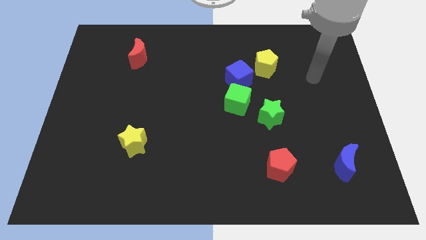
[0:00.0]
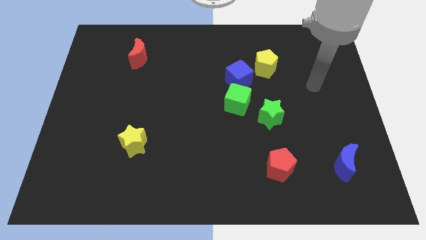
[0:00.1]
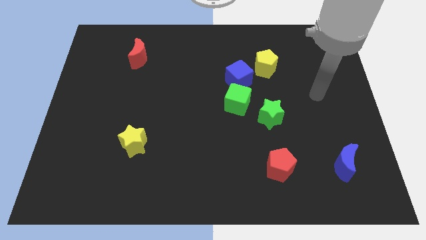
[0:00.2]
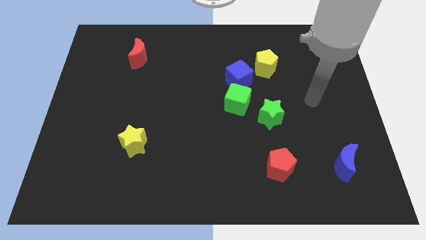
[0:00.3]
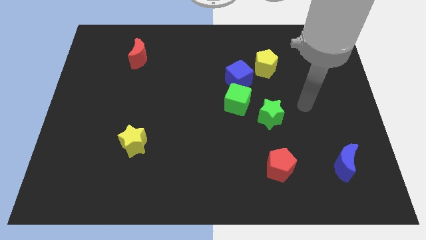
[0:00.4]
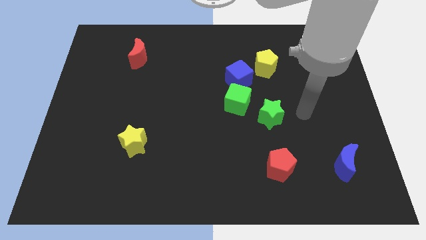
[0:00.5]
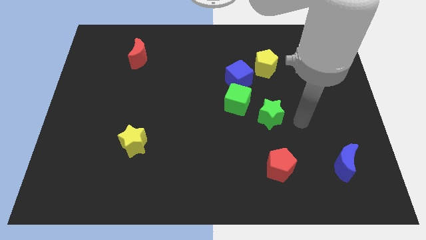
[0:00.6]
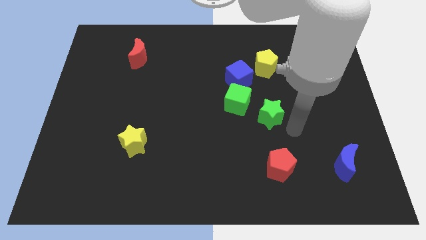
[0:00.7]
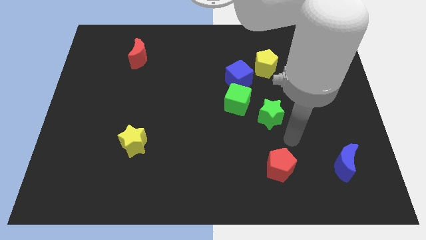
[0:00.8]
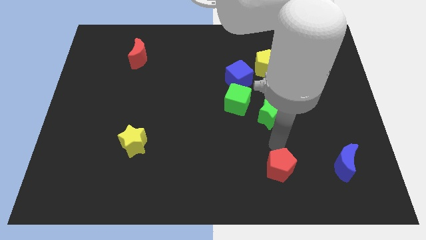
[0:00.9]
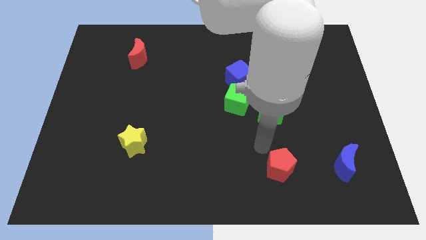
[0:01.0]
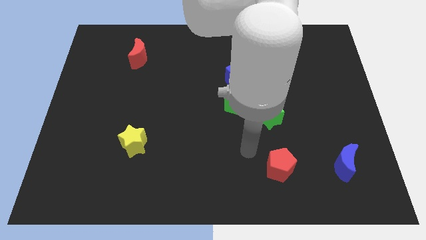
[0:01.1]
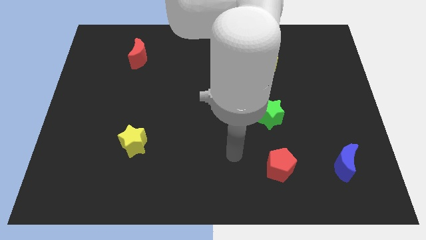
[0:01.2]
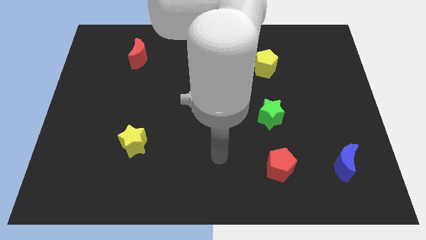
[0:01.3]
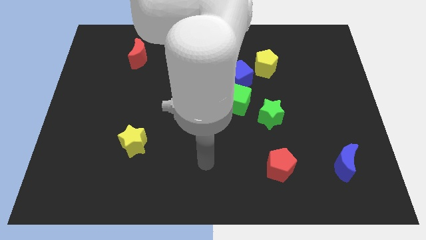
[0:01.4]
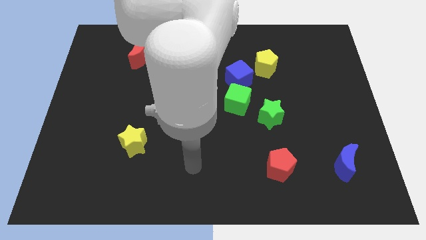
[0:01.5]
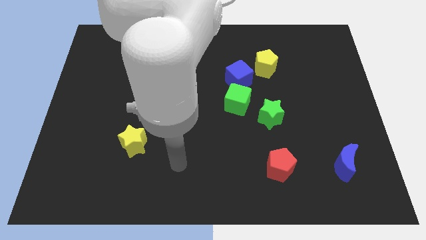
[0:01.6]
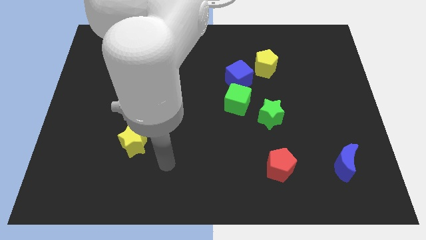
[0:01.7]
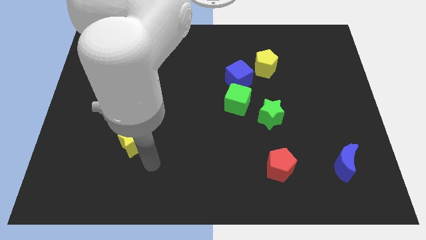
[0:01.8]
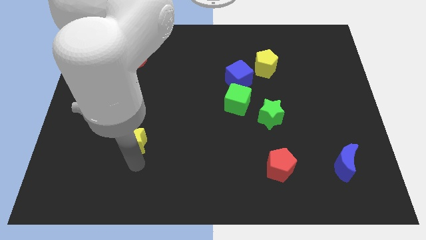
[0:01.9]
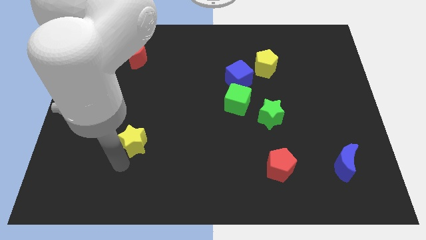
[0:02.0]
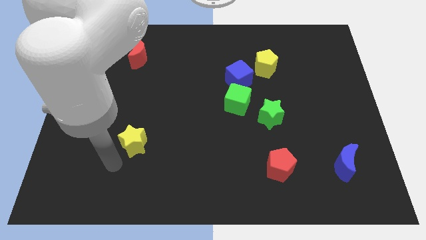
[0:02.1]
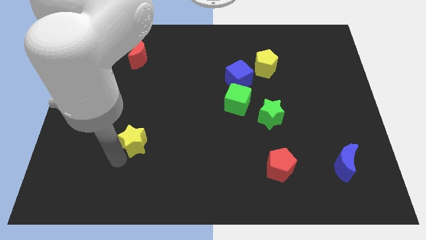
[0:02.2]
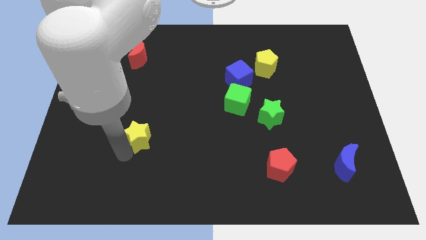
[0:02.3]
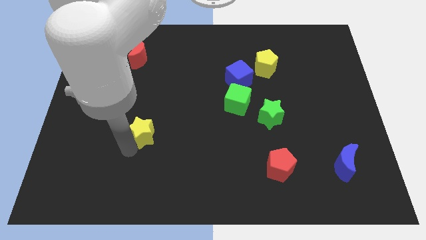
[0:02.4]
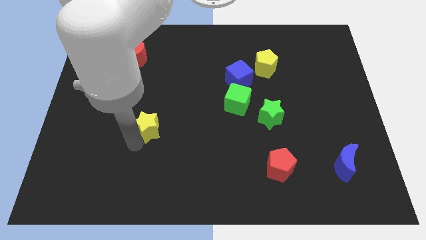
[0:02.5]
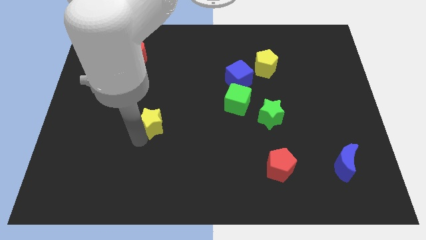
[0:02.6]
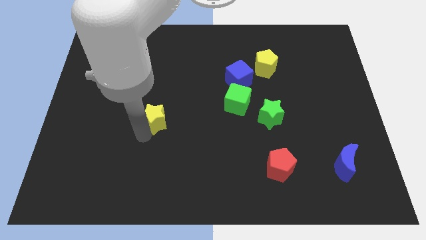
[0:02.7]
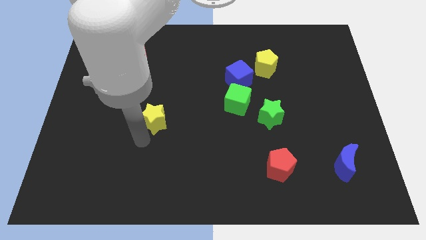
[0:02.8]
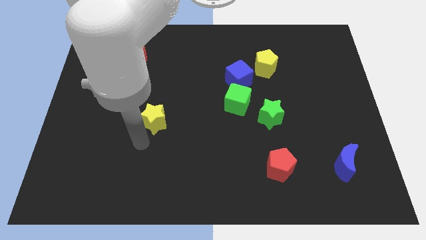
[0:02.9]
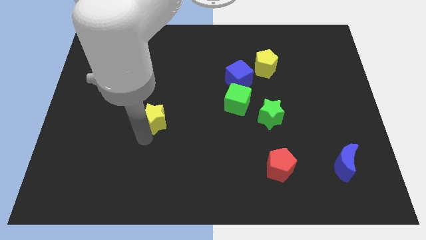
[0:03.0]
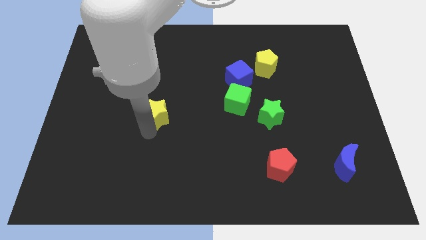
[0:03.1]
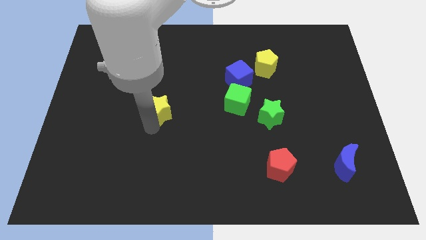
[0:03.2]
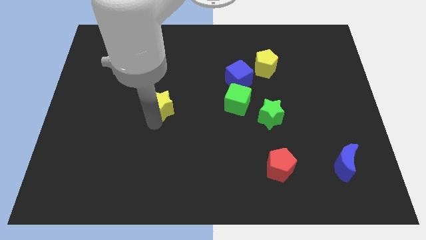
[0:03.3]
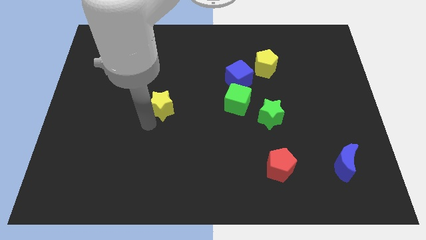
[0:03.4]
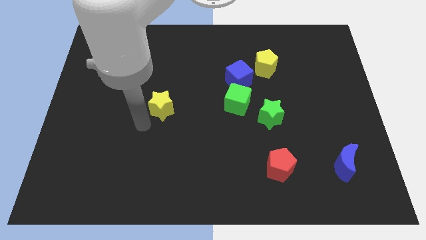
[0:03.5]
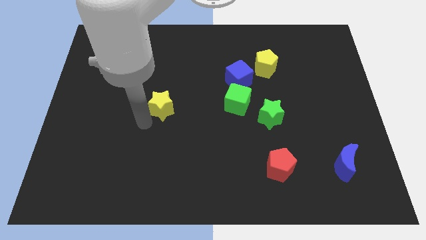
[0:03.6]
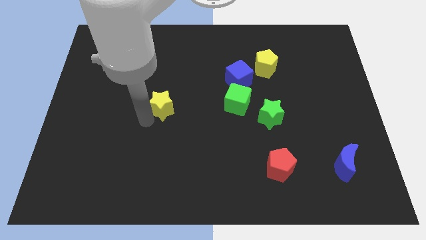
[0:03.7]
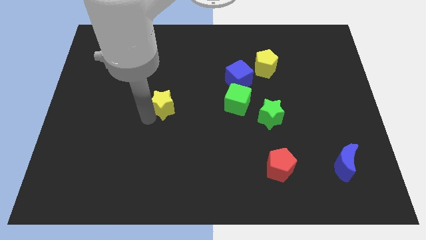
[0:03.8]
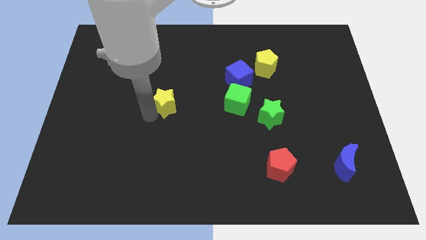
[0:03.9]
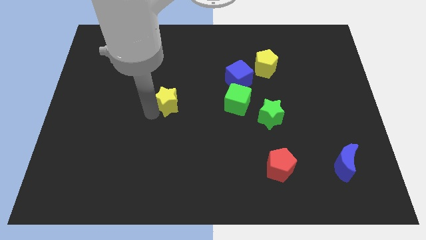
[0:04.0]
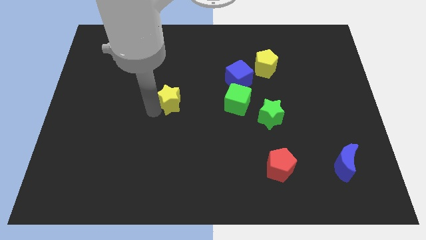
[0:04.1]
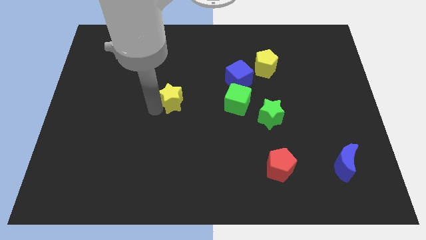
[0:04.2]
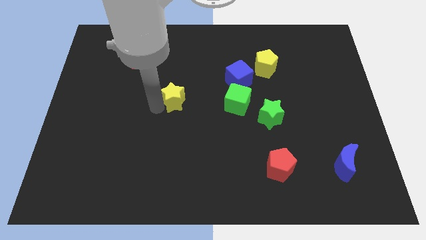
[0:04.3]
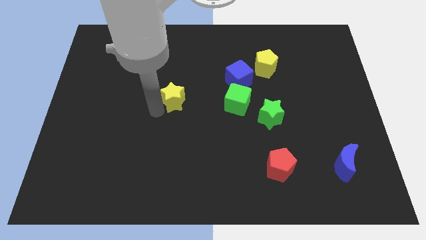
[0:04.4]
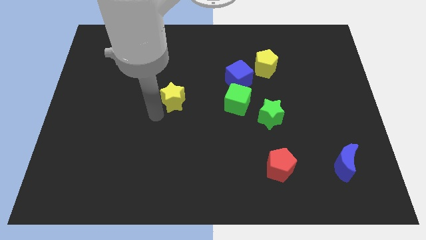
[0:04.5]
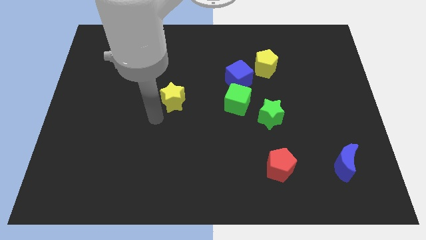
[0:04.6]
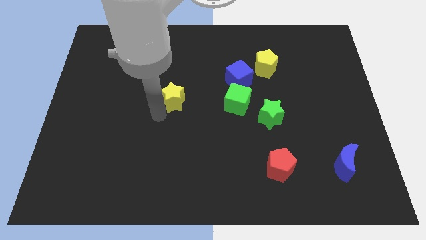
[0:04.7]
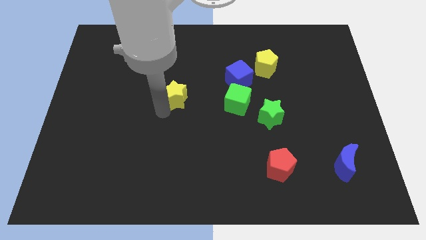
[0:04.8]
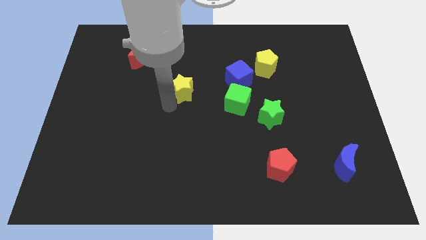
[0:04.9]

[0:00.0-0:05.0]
move the yellow star to the left side of the blue cube

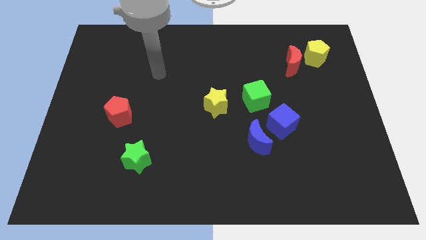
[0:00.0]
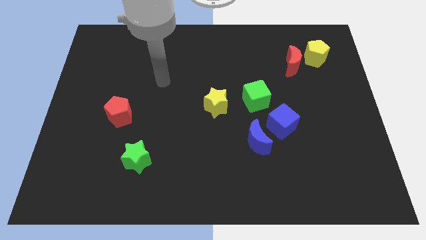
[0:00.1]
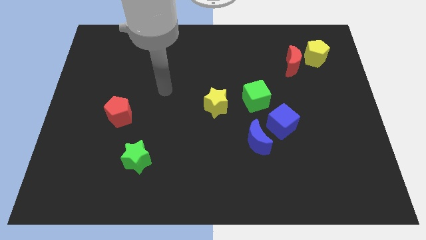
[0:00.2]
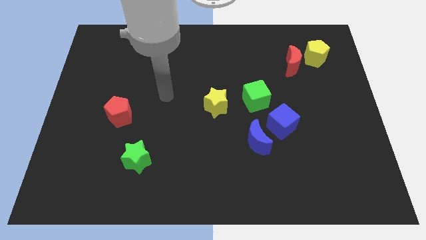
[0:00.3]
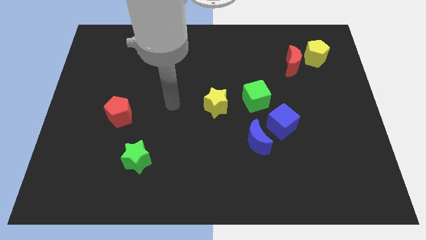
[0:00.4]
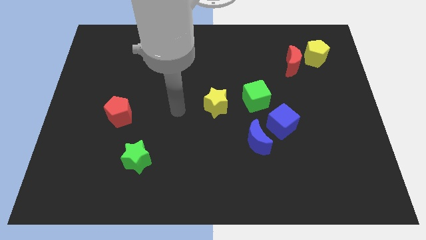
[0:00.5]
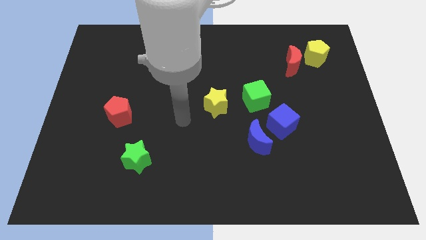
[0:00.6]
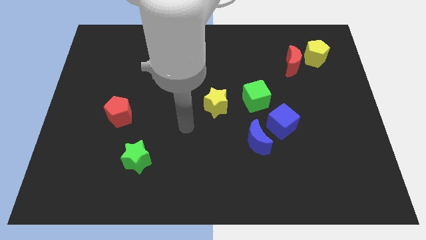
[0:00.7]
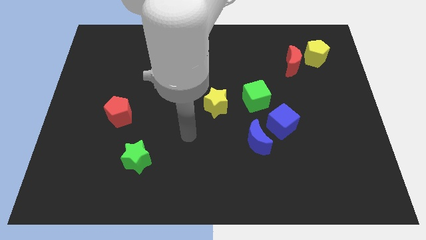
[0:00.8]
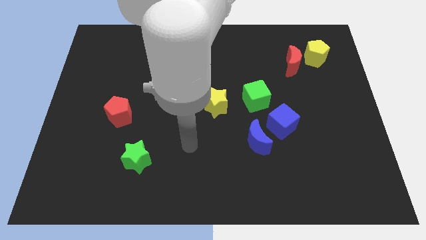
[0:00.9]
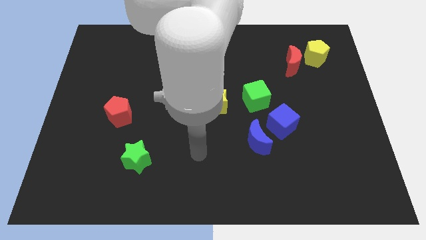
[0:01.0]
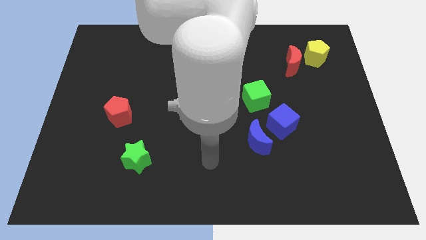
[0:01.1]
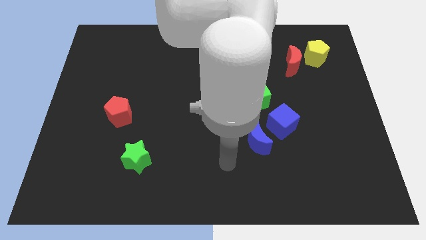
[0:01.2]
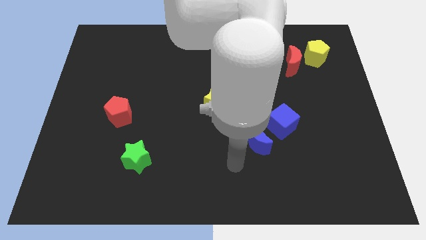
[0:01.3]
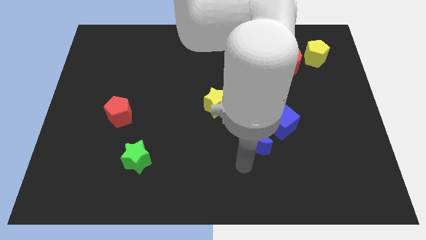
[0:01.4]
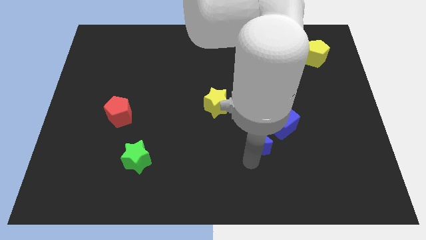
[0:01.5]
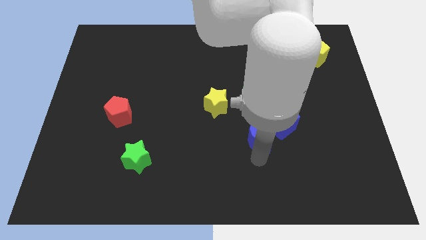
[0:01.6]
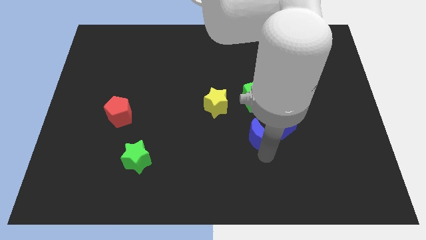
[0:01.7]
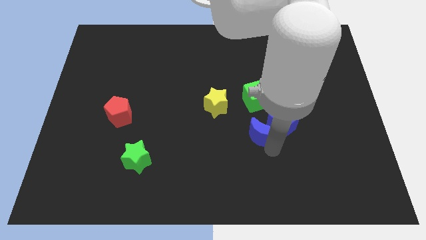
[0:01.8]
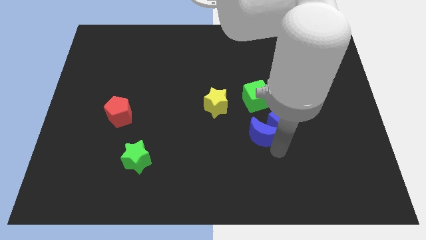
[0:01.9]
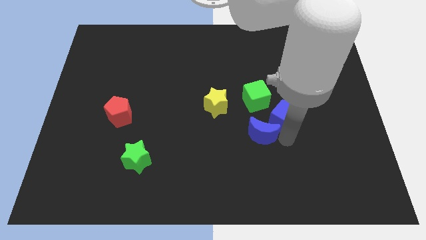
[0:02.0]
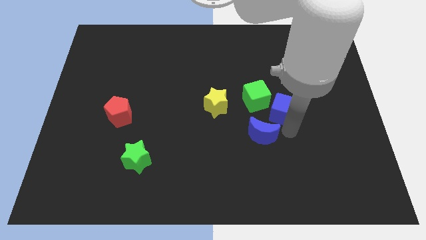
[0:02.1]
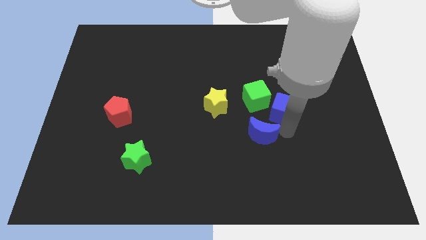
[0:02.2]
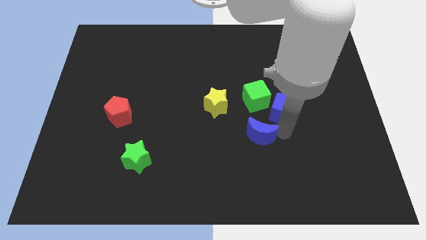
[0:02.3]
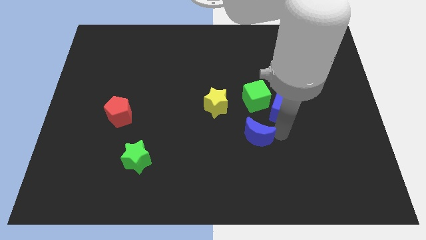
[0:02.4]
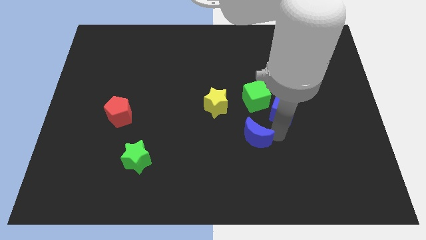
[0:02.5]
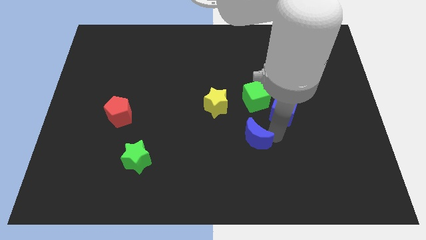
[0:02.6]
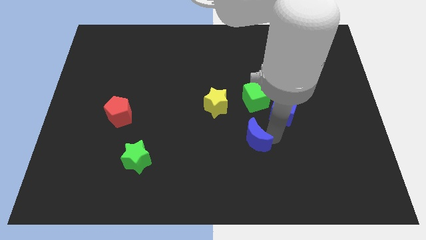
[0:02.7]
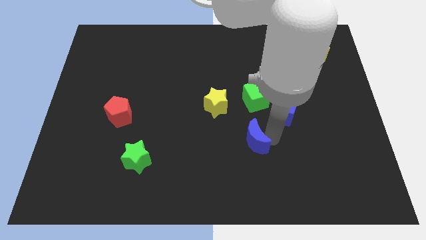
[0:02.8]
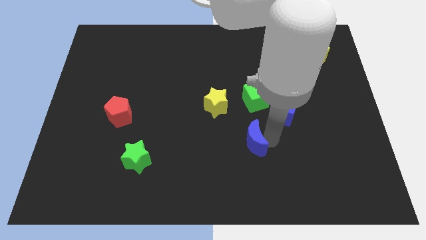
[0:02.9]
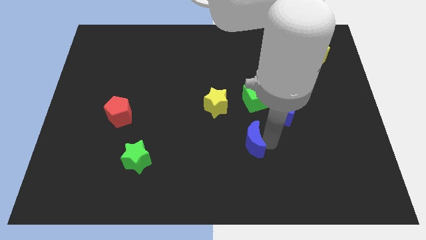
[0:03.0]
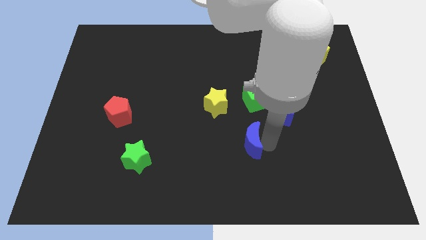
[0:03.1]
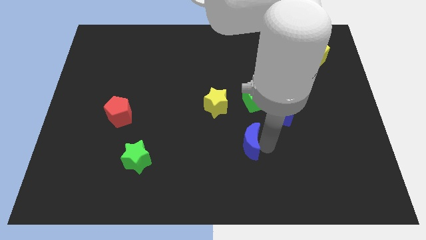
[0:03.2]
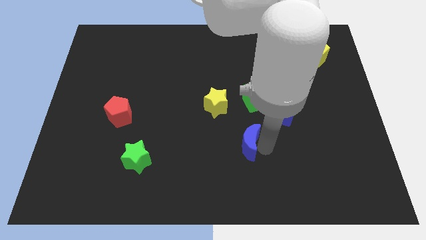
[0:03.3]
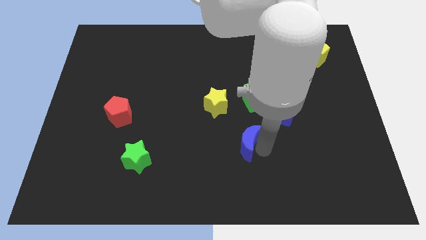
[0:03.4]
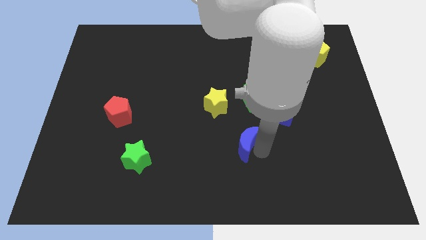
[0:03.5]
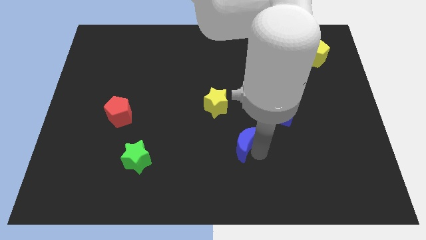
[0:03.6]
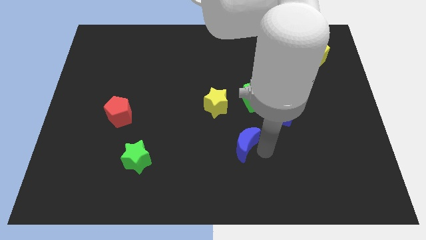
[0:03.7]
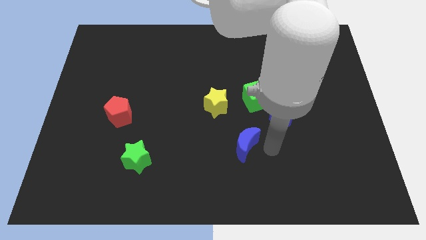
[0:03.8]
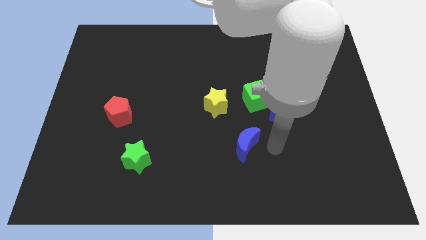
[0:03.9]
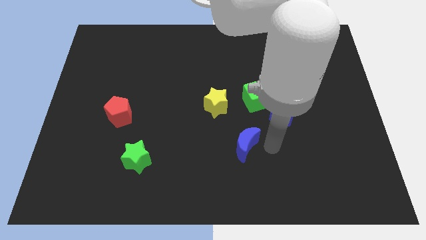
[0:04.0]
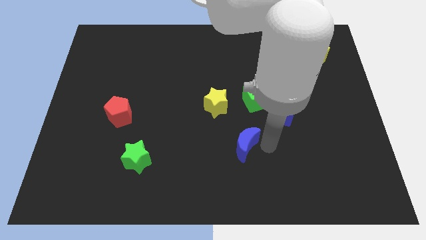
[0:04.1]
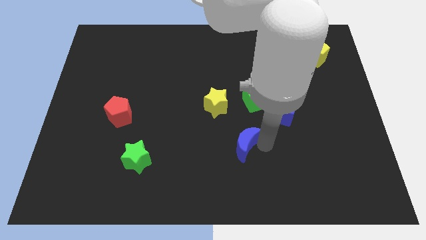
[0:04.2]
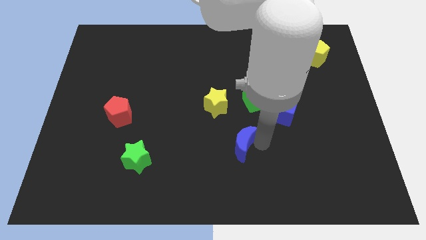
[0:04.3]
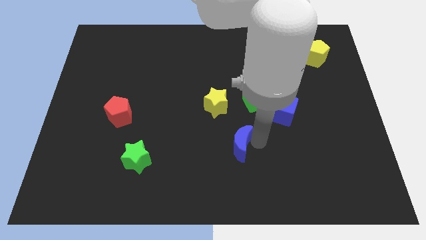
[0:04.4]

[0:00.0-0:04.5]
push the blue moon below the yellow star
